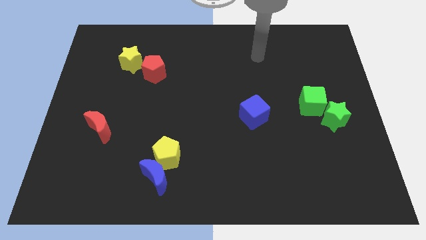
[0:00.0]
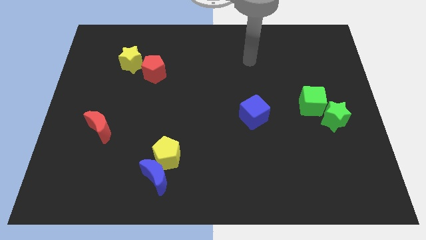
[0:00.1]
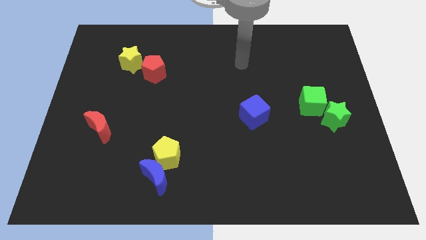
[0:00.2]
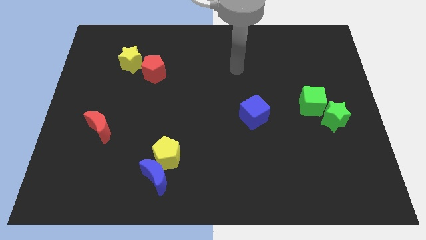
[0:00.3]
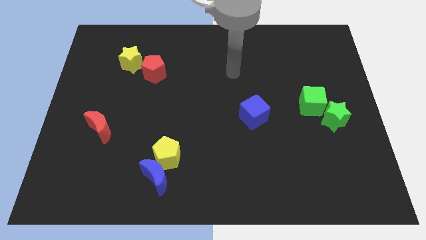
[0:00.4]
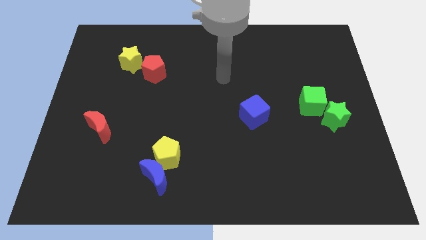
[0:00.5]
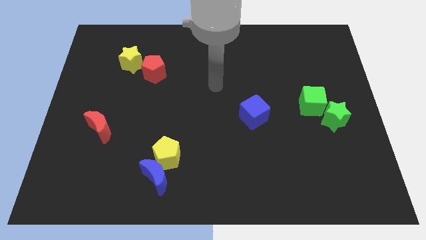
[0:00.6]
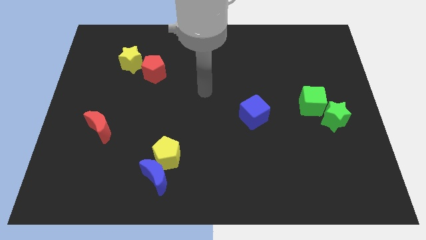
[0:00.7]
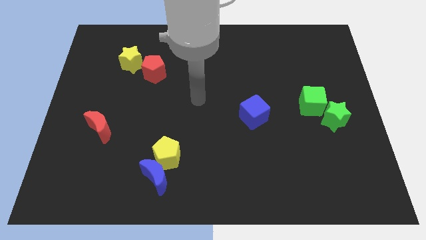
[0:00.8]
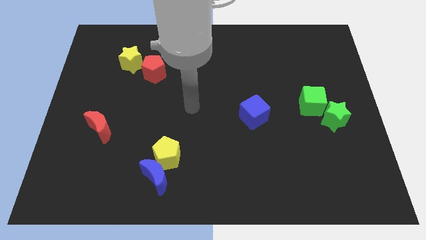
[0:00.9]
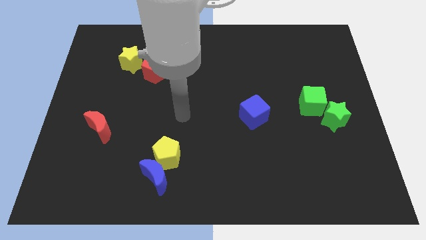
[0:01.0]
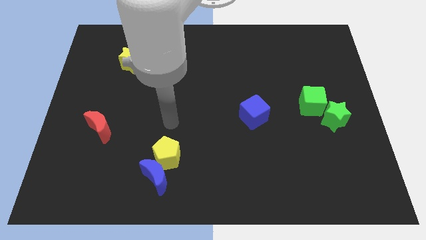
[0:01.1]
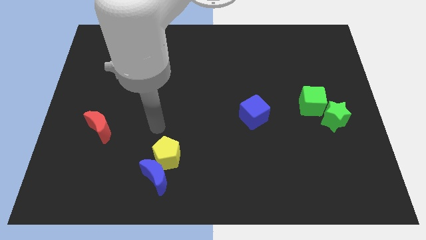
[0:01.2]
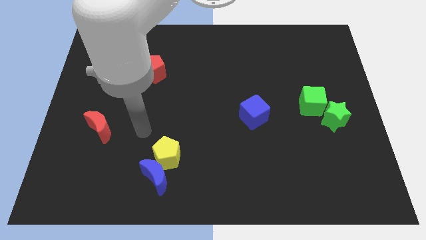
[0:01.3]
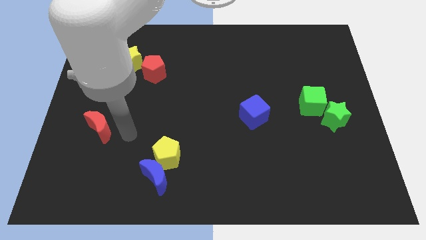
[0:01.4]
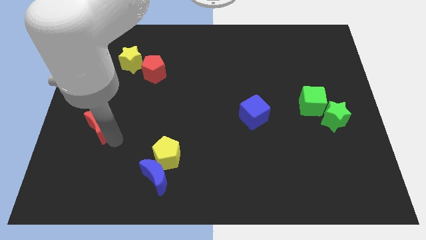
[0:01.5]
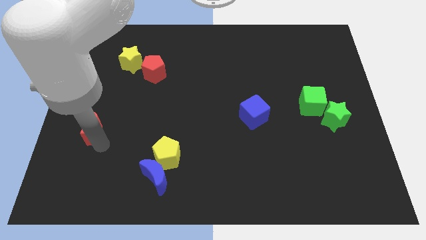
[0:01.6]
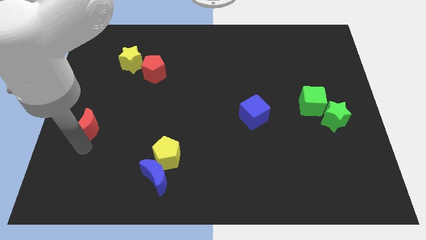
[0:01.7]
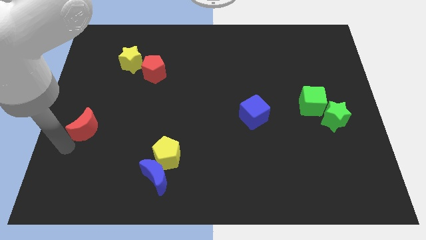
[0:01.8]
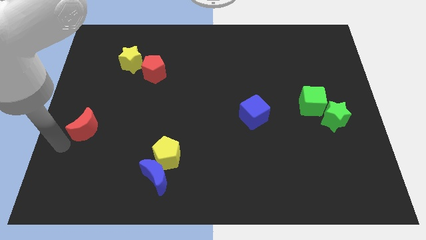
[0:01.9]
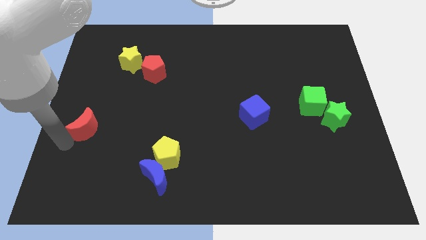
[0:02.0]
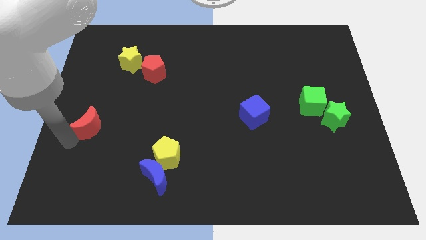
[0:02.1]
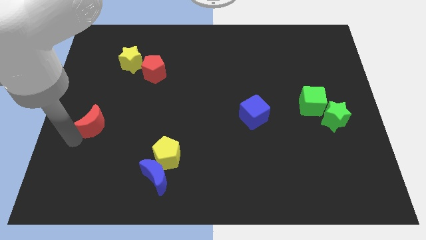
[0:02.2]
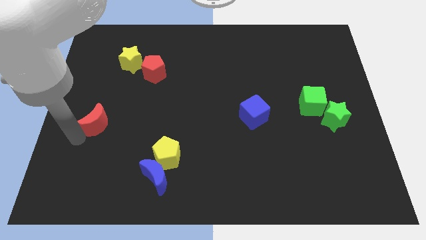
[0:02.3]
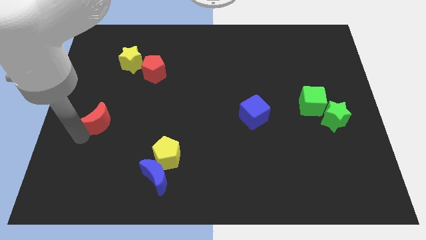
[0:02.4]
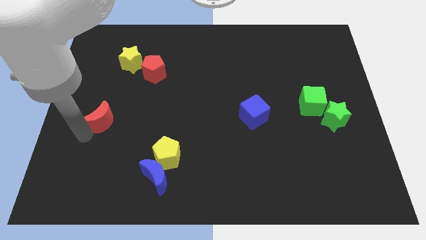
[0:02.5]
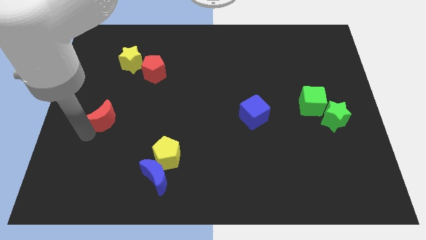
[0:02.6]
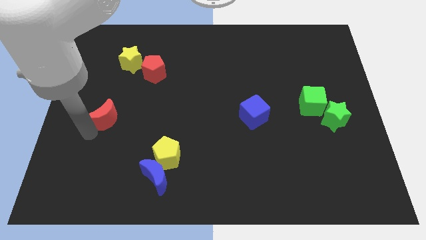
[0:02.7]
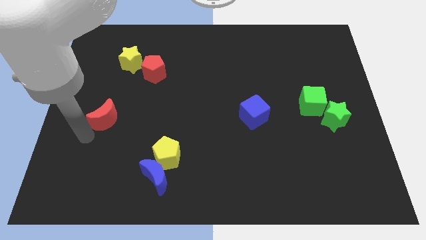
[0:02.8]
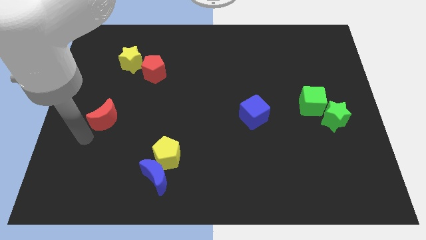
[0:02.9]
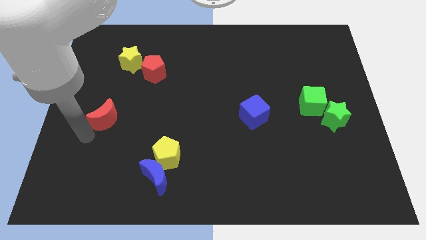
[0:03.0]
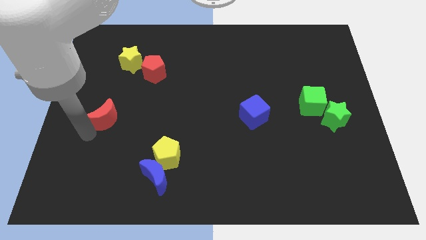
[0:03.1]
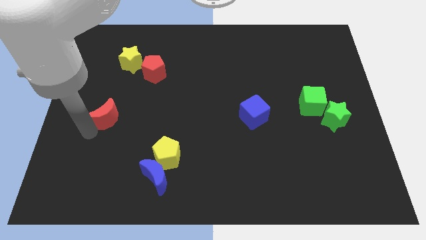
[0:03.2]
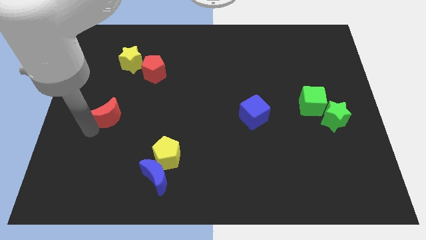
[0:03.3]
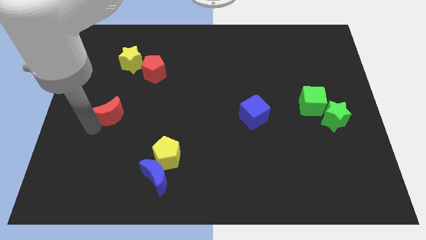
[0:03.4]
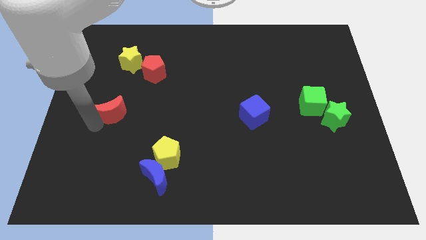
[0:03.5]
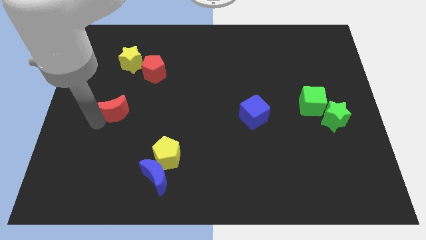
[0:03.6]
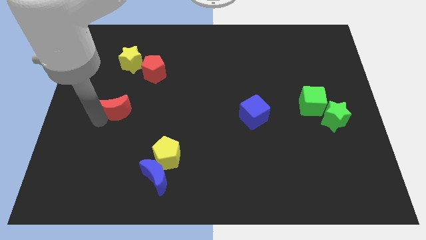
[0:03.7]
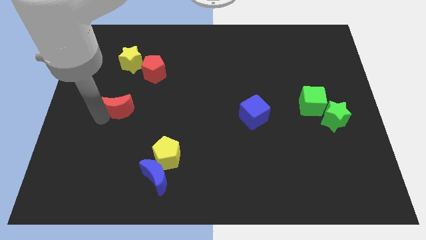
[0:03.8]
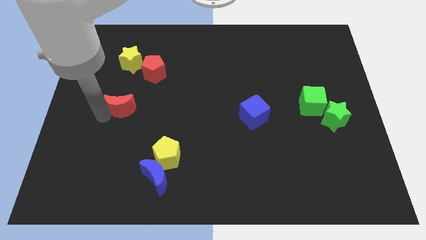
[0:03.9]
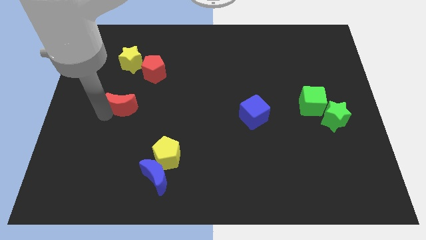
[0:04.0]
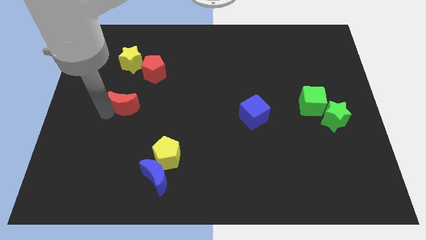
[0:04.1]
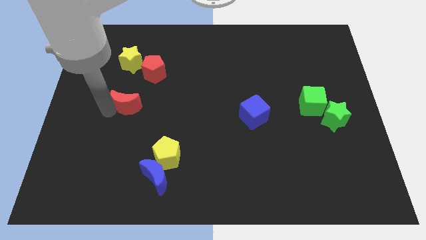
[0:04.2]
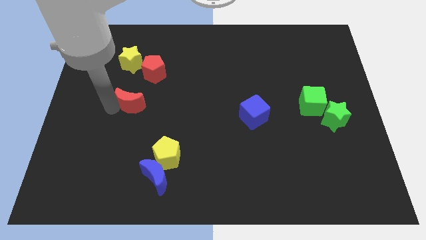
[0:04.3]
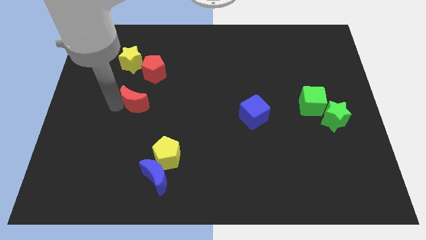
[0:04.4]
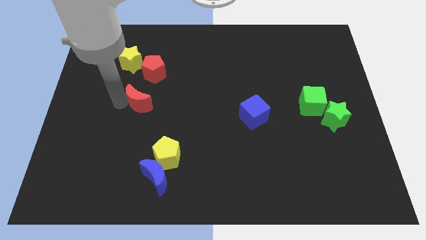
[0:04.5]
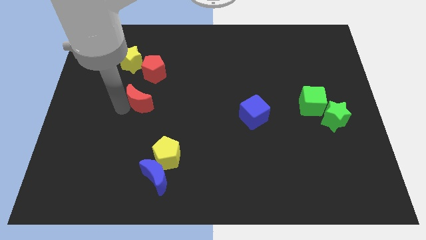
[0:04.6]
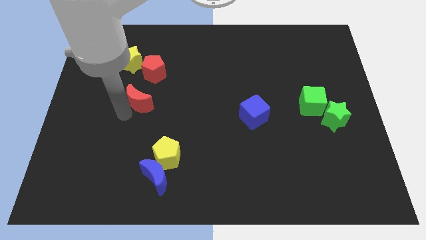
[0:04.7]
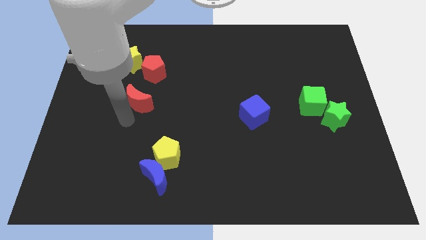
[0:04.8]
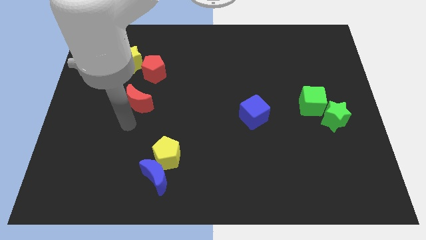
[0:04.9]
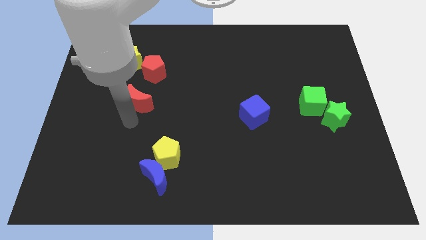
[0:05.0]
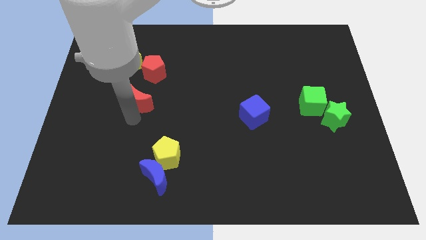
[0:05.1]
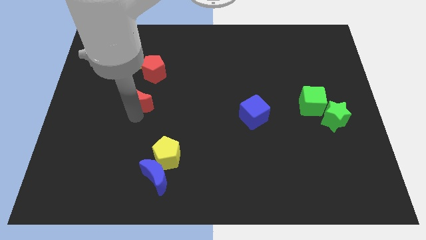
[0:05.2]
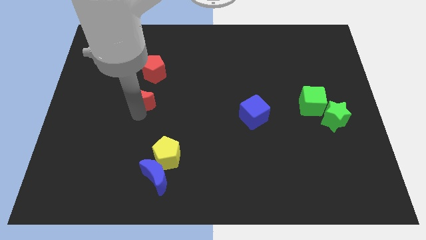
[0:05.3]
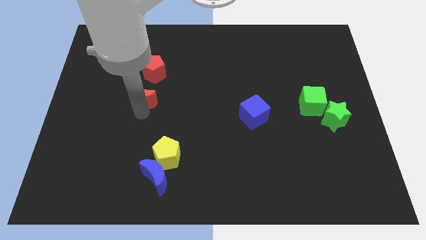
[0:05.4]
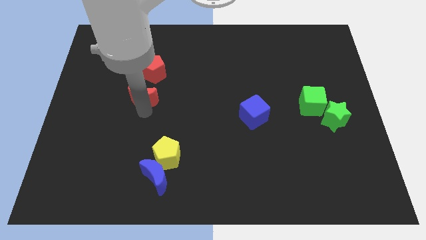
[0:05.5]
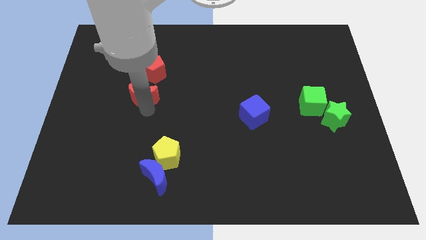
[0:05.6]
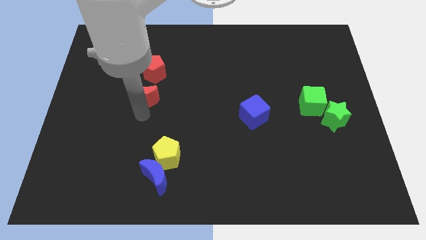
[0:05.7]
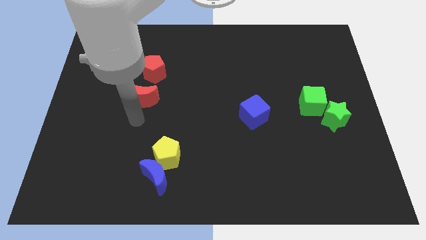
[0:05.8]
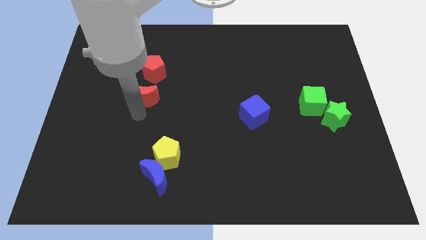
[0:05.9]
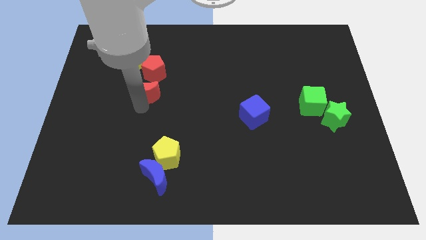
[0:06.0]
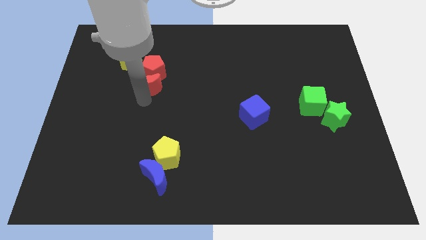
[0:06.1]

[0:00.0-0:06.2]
move the red moon to the red pentagon
